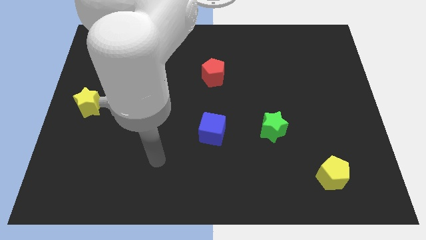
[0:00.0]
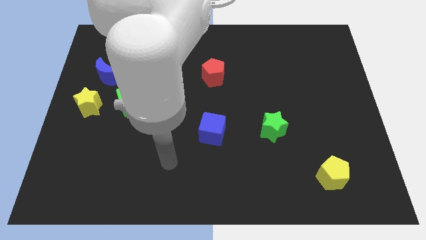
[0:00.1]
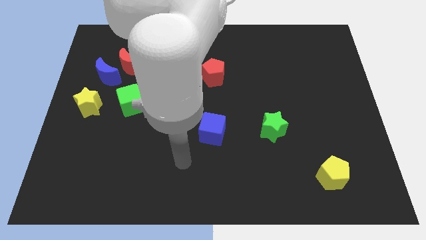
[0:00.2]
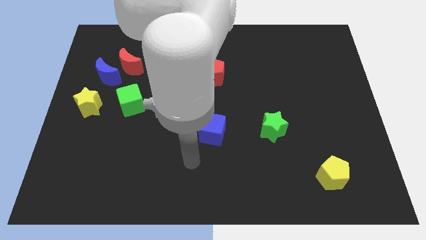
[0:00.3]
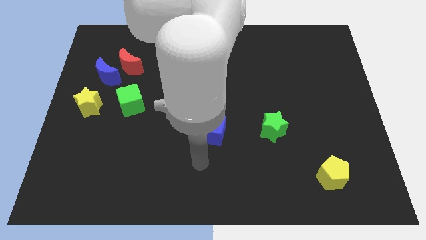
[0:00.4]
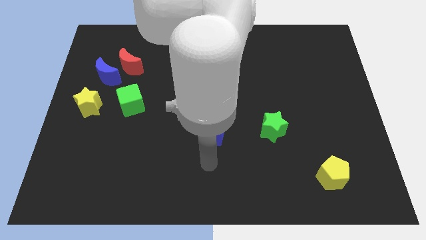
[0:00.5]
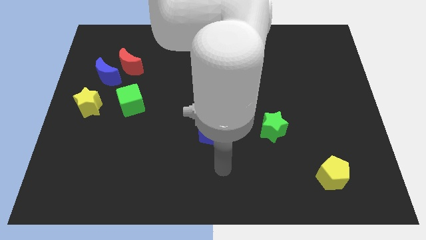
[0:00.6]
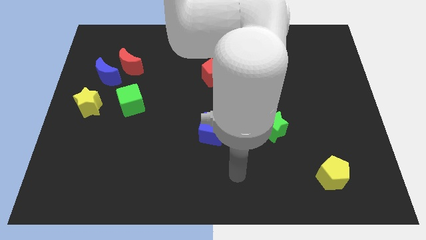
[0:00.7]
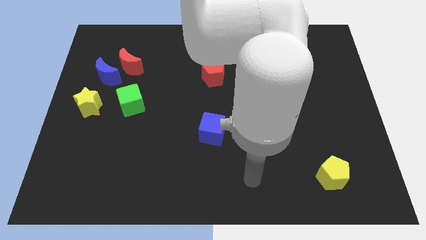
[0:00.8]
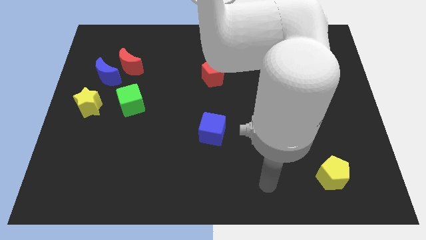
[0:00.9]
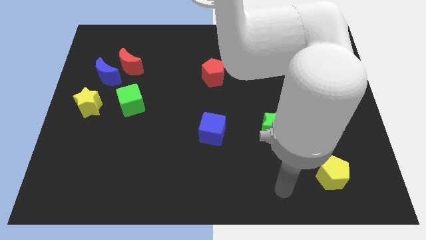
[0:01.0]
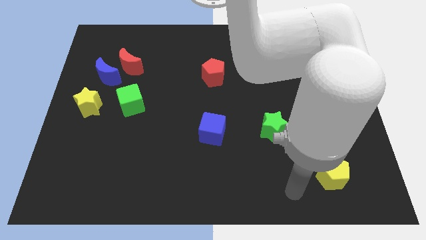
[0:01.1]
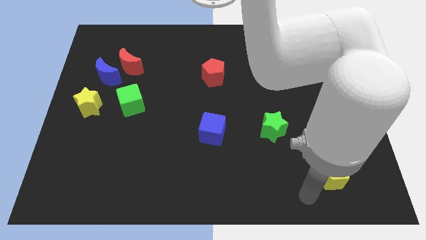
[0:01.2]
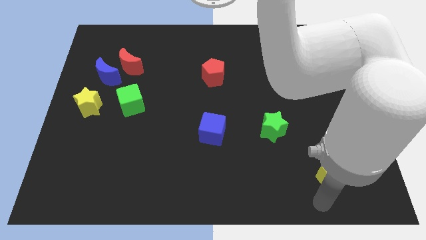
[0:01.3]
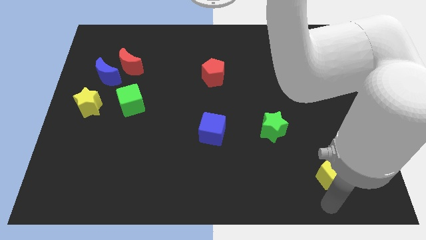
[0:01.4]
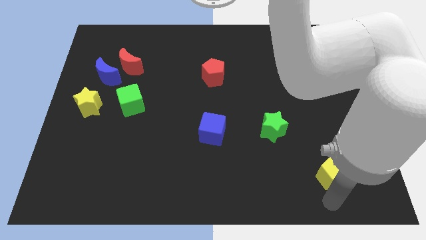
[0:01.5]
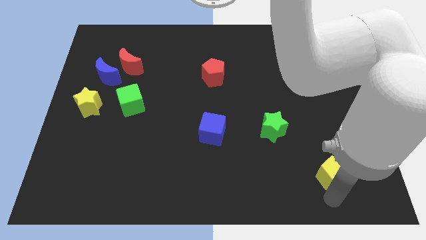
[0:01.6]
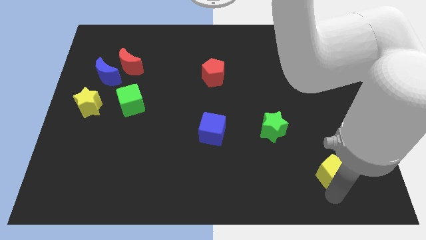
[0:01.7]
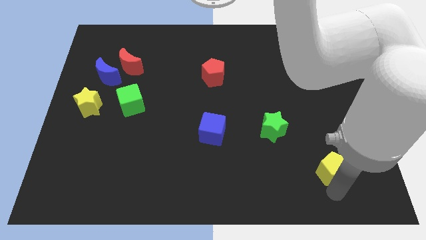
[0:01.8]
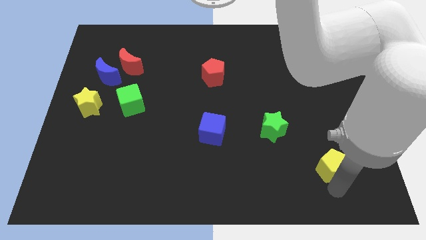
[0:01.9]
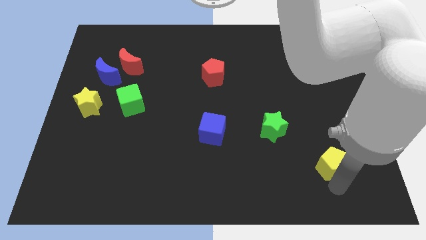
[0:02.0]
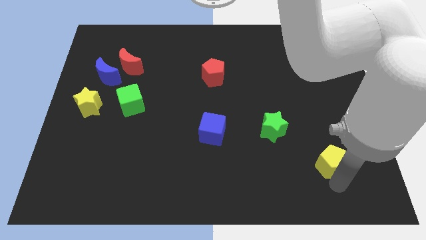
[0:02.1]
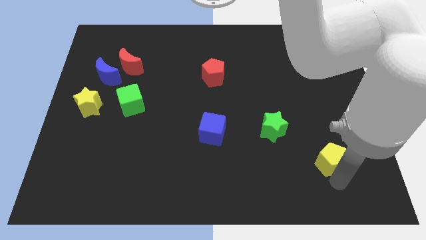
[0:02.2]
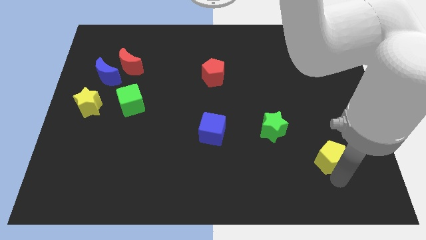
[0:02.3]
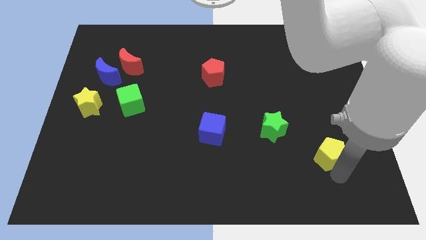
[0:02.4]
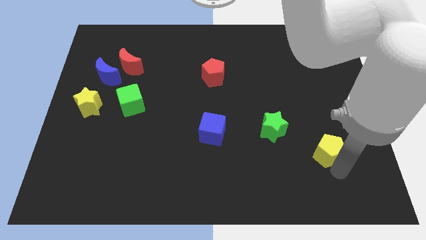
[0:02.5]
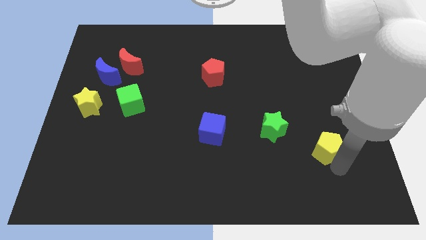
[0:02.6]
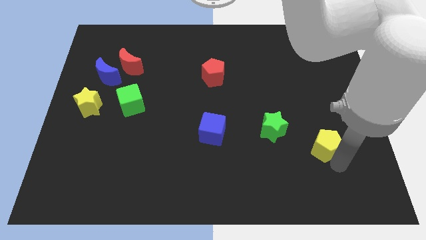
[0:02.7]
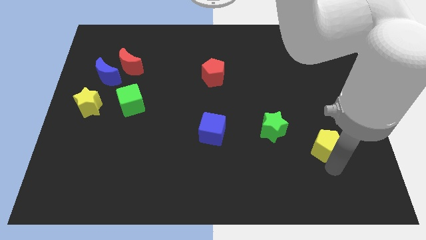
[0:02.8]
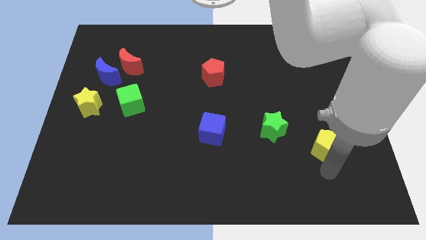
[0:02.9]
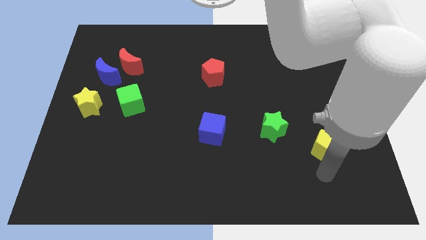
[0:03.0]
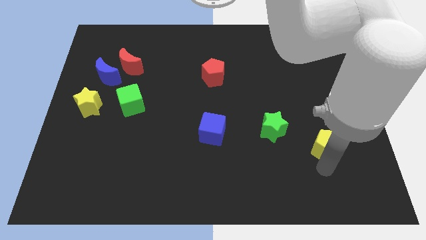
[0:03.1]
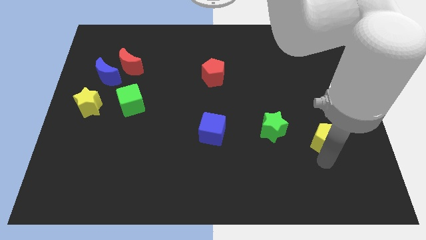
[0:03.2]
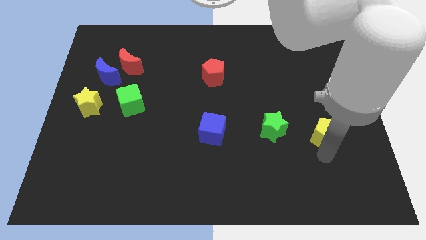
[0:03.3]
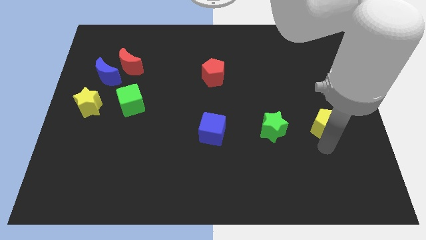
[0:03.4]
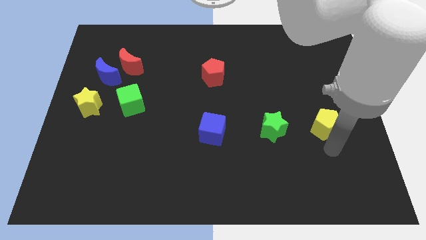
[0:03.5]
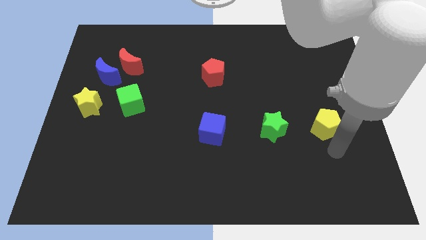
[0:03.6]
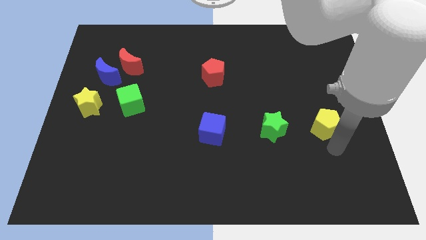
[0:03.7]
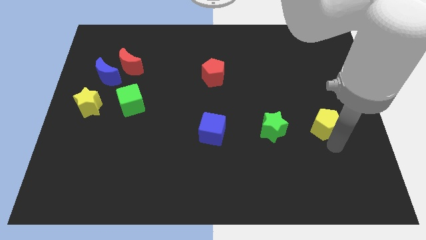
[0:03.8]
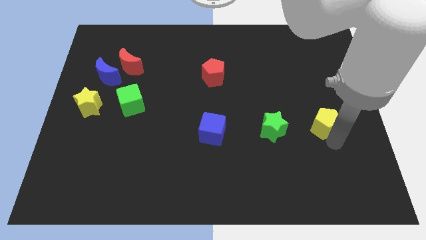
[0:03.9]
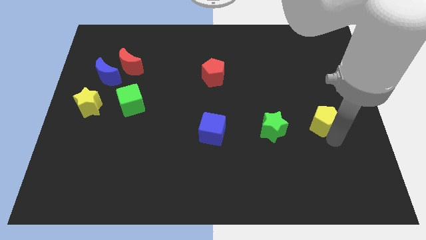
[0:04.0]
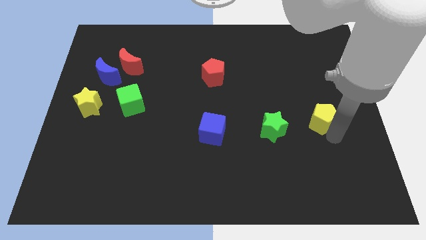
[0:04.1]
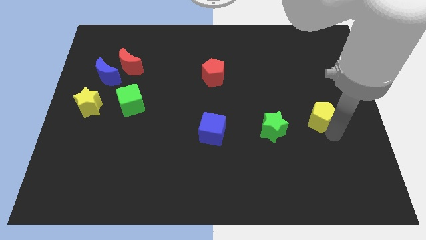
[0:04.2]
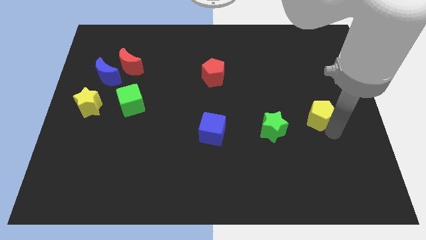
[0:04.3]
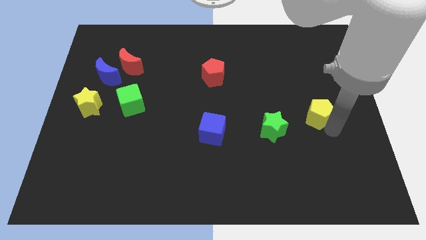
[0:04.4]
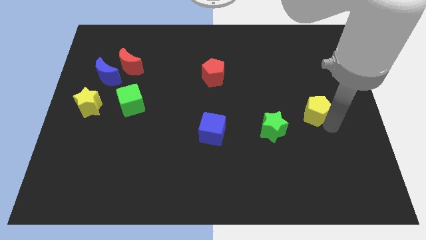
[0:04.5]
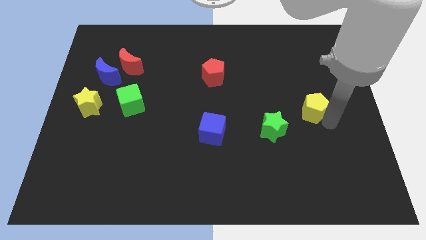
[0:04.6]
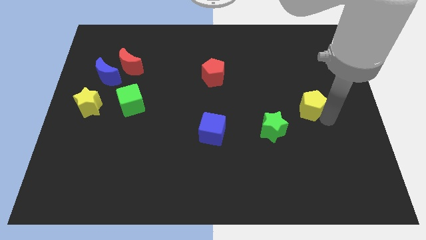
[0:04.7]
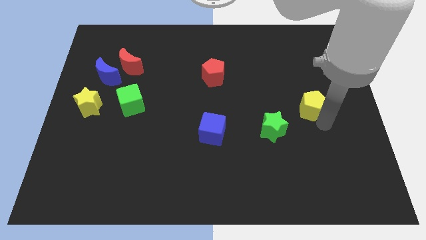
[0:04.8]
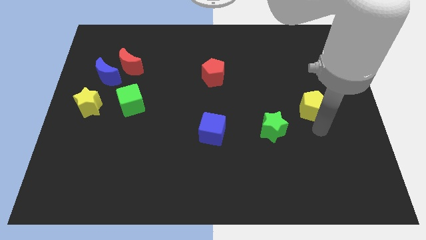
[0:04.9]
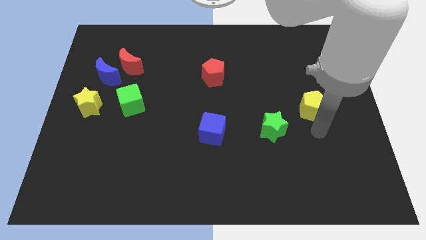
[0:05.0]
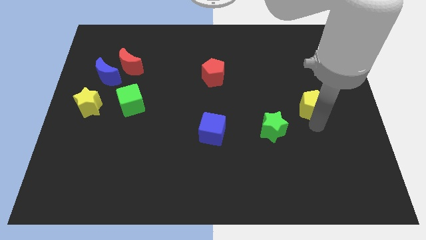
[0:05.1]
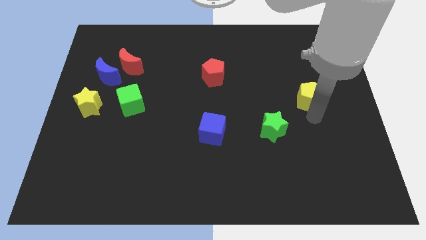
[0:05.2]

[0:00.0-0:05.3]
push the yellow pentagon upwards

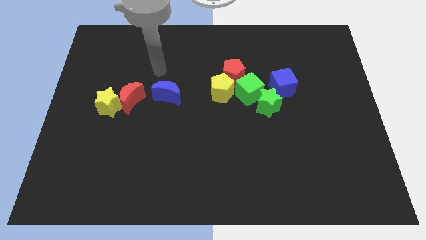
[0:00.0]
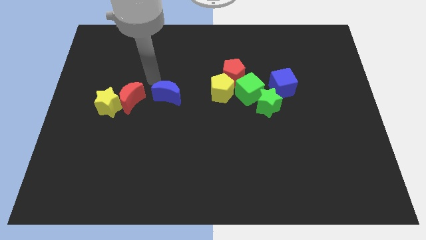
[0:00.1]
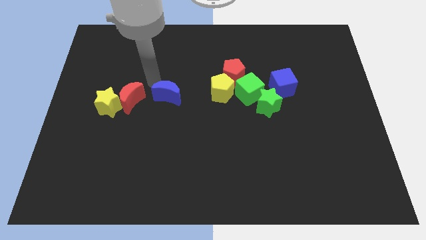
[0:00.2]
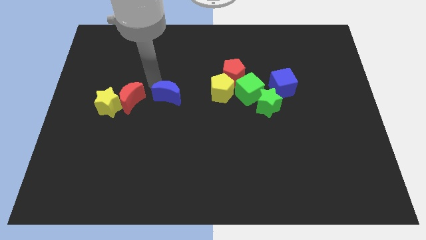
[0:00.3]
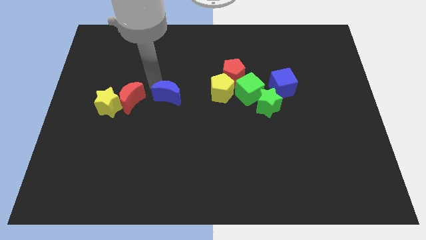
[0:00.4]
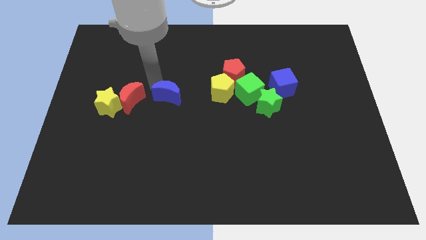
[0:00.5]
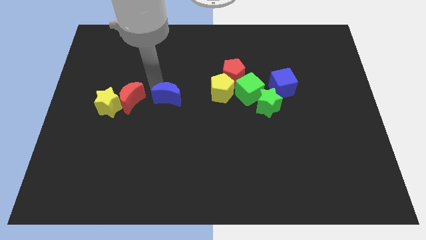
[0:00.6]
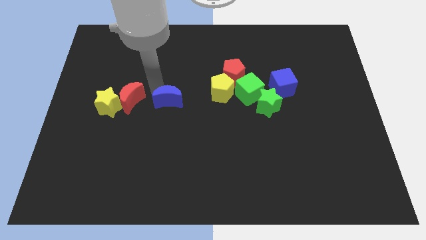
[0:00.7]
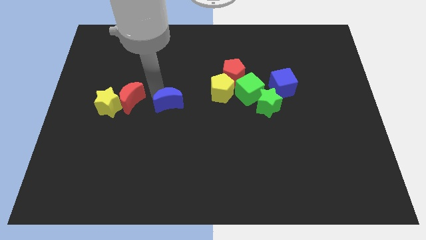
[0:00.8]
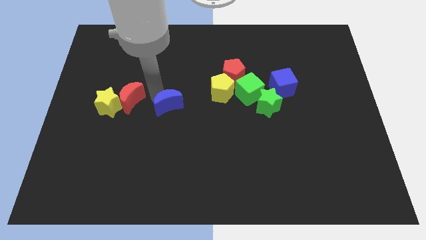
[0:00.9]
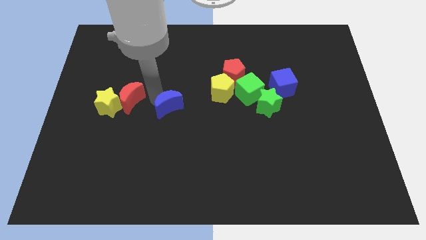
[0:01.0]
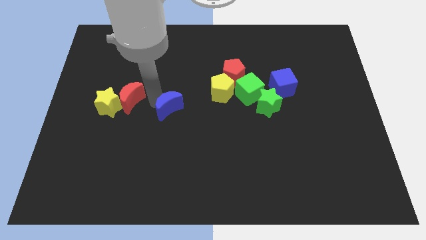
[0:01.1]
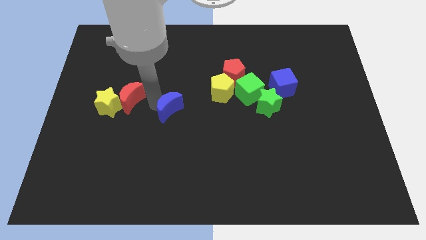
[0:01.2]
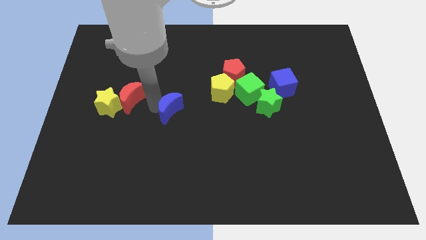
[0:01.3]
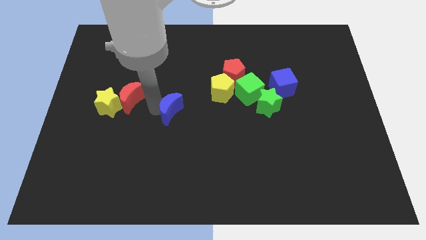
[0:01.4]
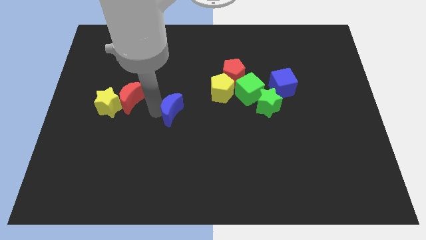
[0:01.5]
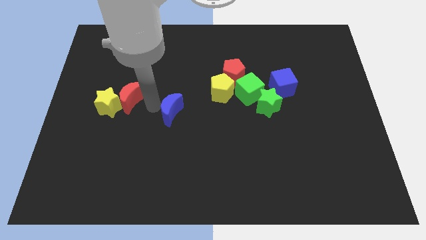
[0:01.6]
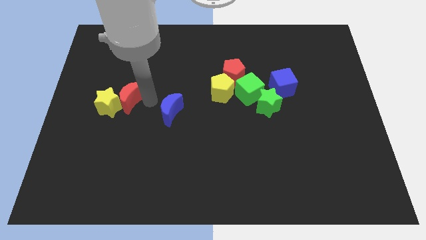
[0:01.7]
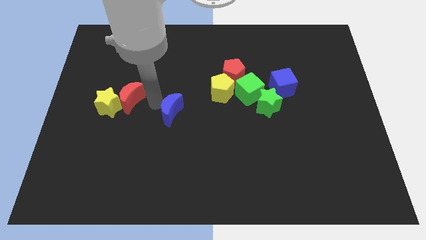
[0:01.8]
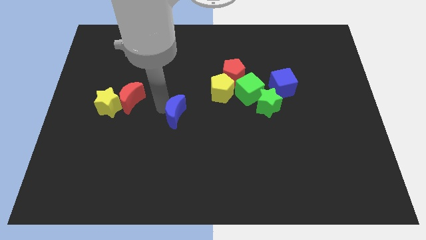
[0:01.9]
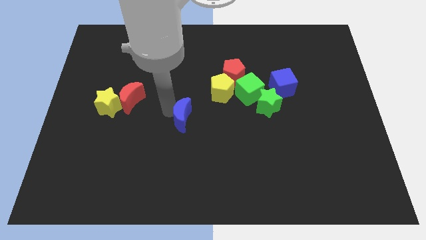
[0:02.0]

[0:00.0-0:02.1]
slide the blue moon diagonally downwards and to the right a little bit

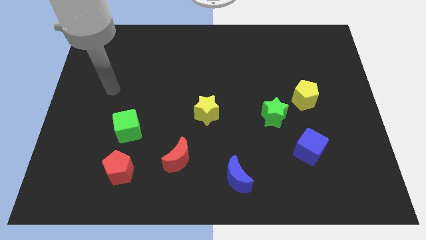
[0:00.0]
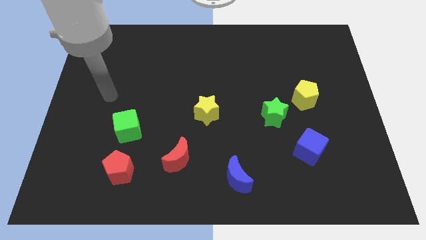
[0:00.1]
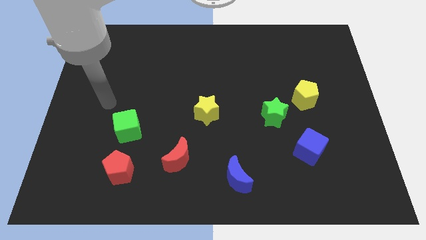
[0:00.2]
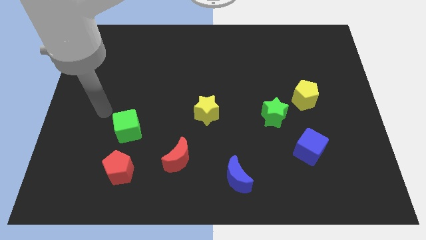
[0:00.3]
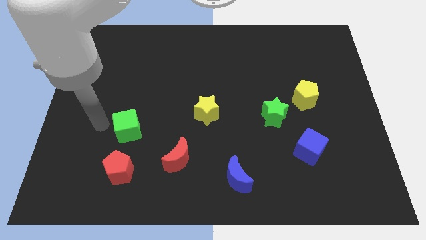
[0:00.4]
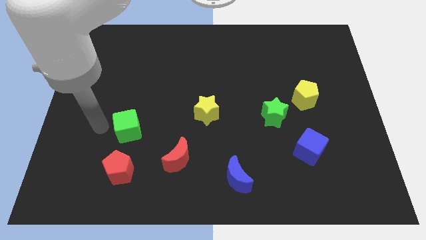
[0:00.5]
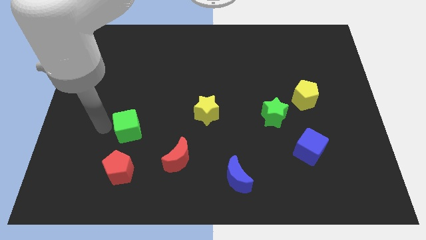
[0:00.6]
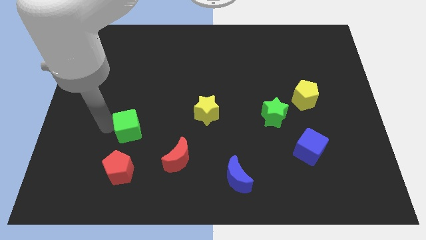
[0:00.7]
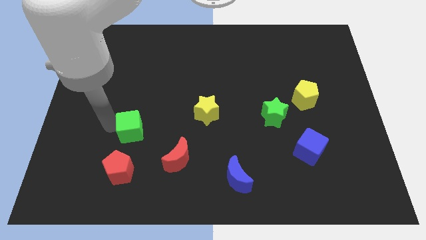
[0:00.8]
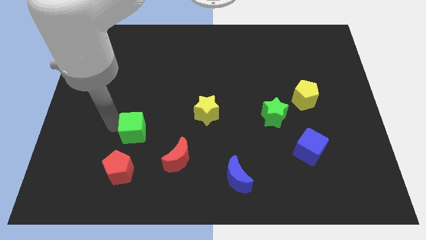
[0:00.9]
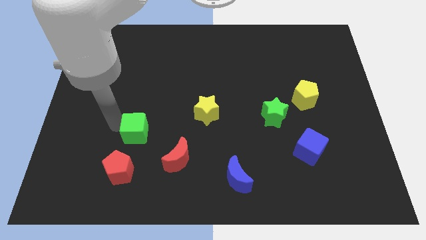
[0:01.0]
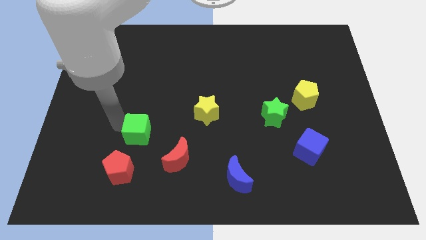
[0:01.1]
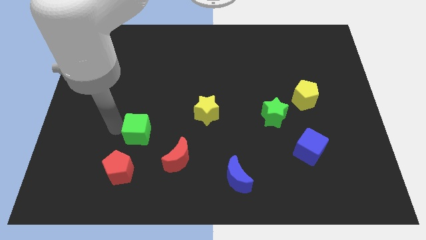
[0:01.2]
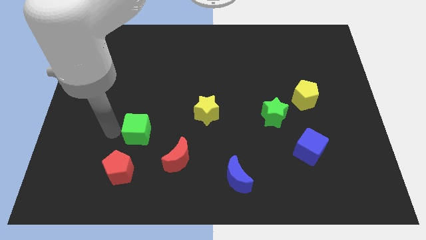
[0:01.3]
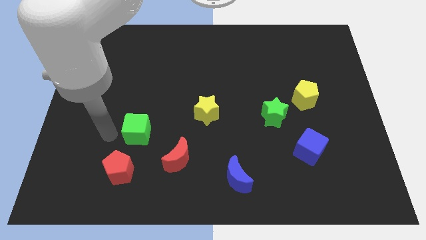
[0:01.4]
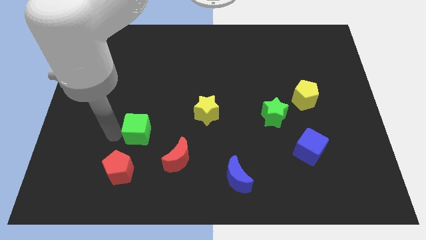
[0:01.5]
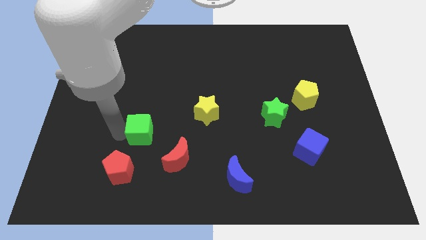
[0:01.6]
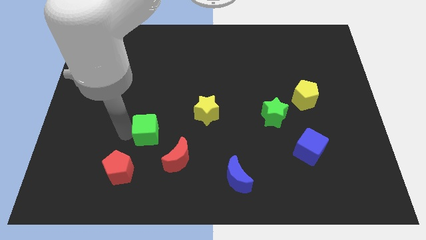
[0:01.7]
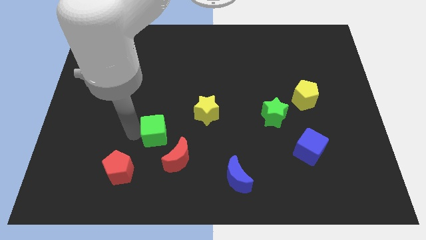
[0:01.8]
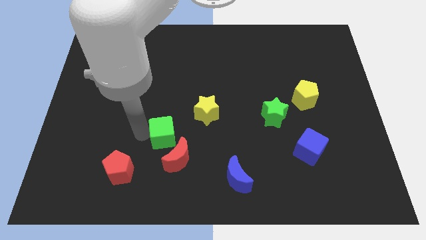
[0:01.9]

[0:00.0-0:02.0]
push the green cube a little right
